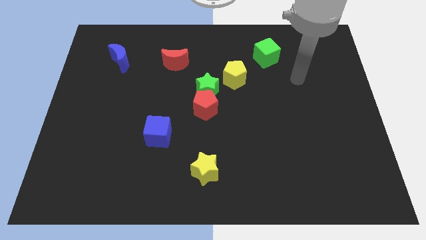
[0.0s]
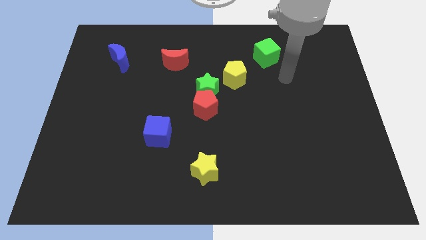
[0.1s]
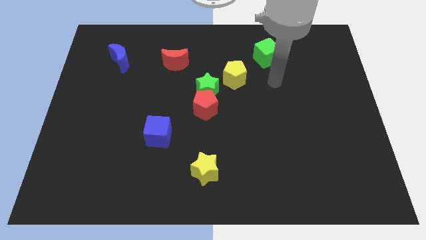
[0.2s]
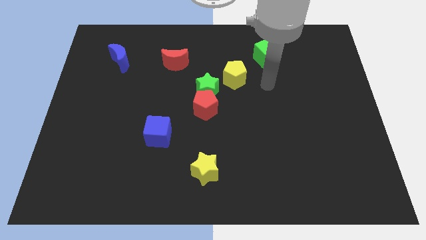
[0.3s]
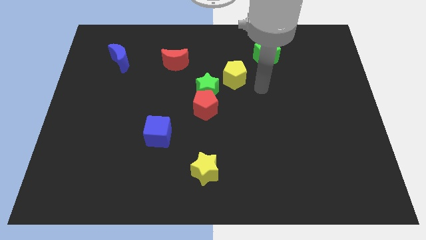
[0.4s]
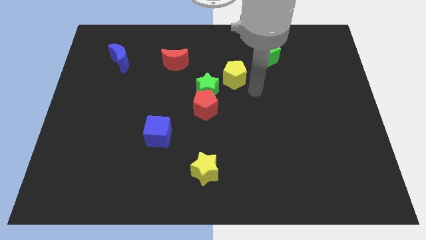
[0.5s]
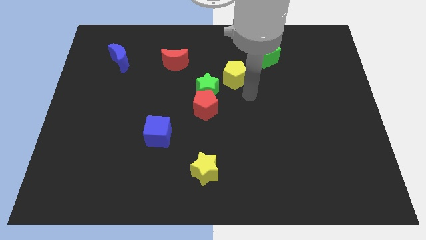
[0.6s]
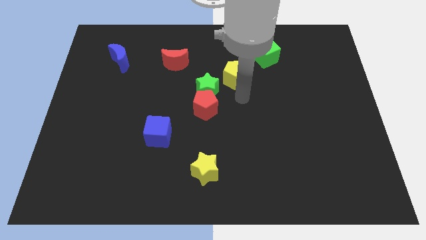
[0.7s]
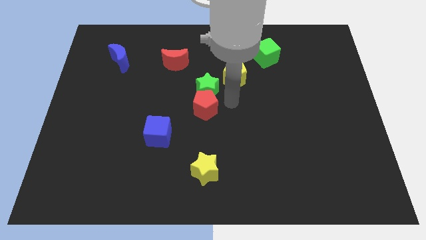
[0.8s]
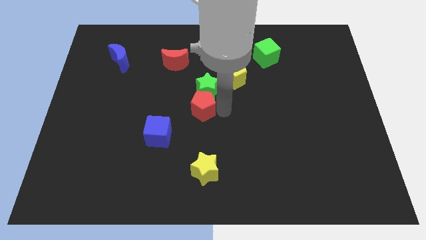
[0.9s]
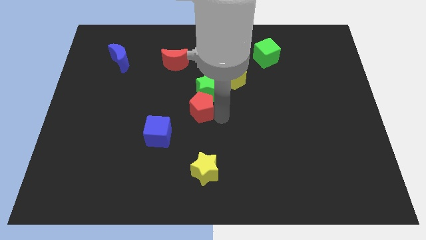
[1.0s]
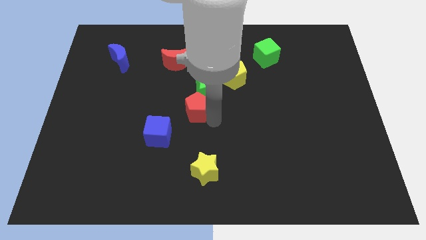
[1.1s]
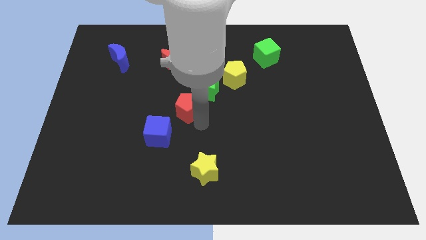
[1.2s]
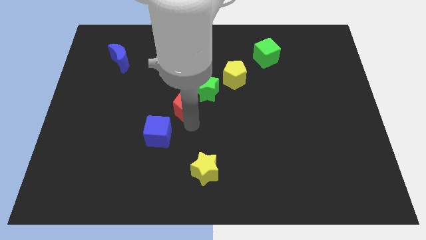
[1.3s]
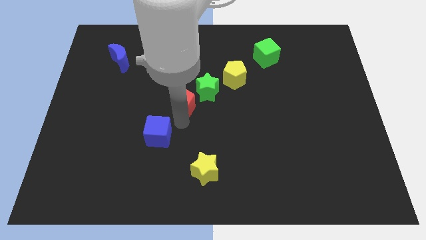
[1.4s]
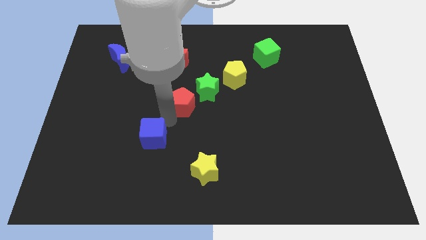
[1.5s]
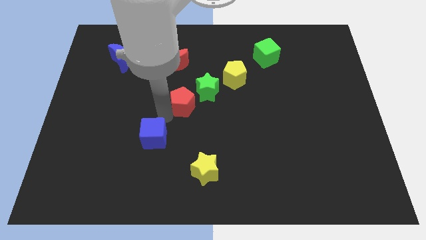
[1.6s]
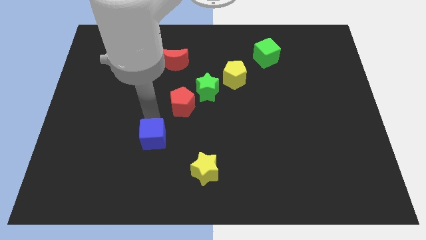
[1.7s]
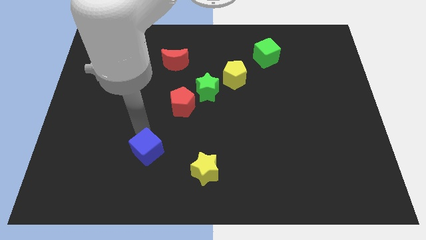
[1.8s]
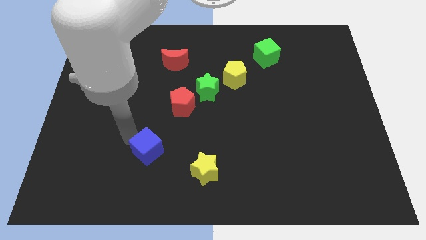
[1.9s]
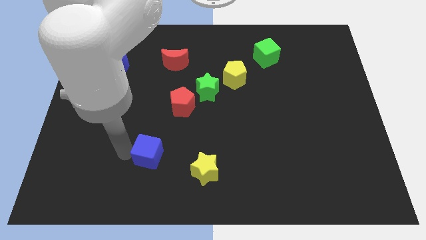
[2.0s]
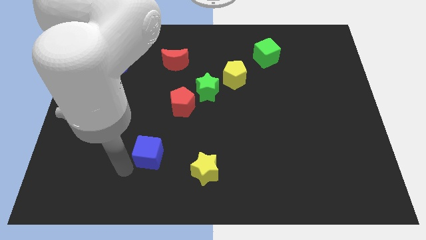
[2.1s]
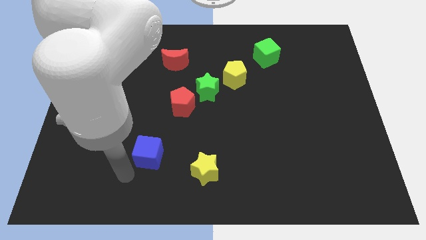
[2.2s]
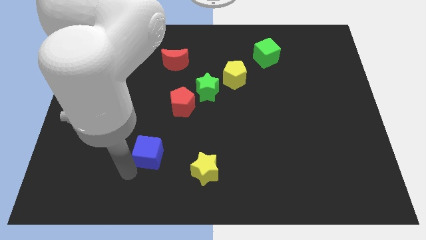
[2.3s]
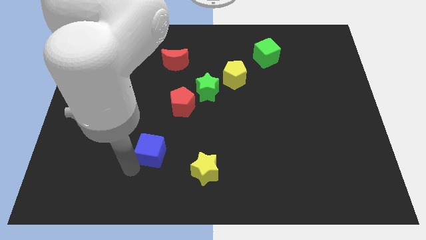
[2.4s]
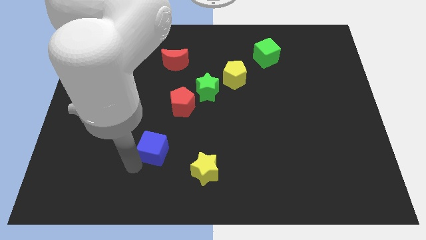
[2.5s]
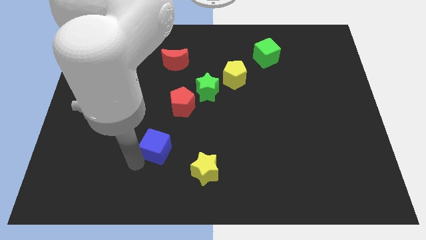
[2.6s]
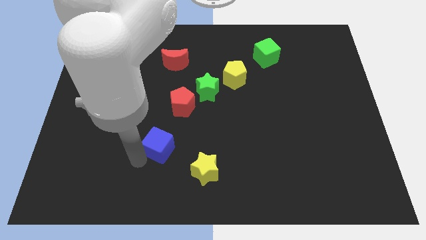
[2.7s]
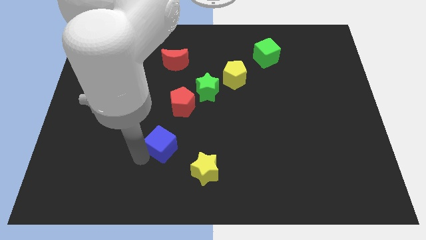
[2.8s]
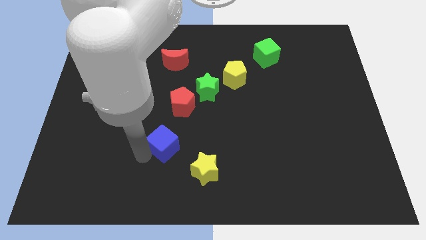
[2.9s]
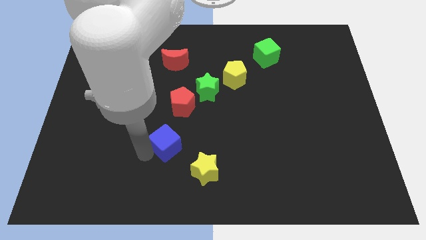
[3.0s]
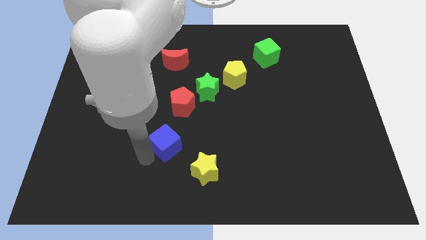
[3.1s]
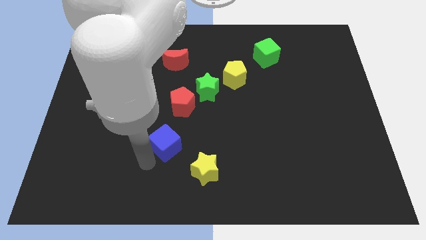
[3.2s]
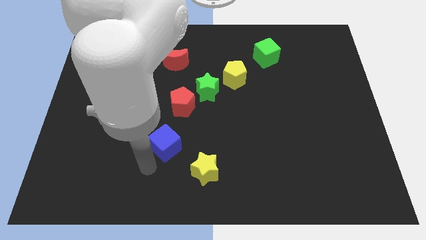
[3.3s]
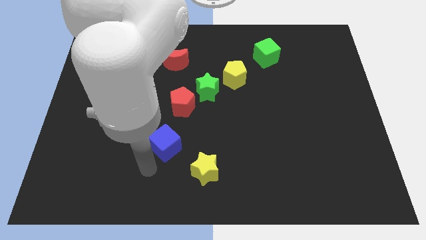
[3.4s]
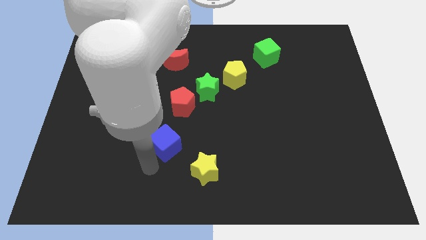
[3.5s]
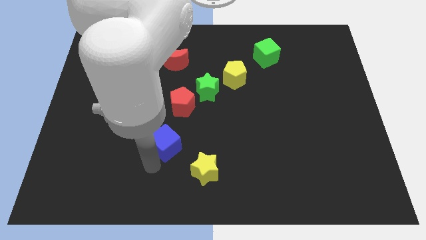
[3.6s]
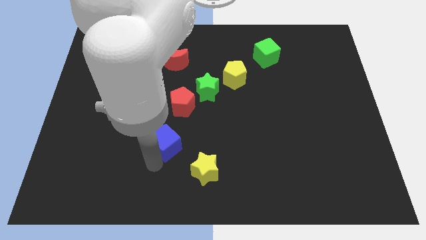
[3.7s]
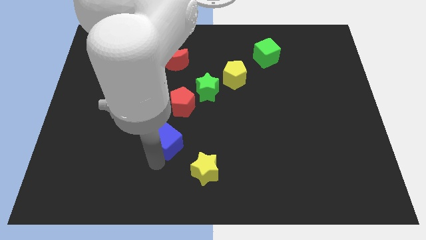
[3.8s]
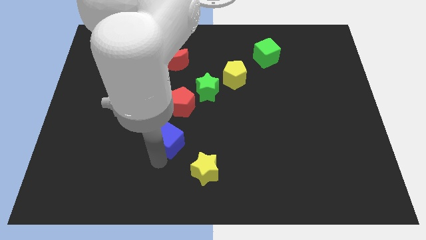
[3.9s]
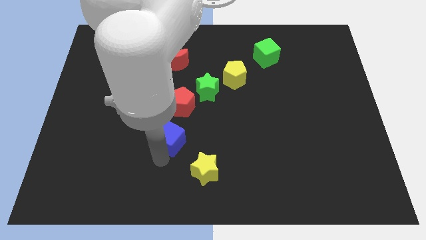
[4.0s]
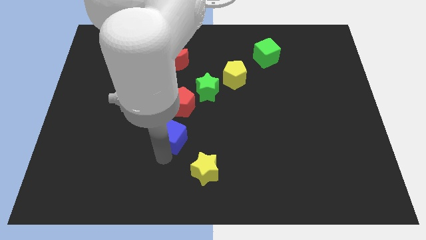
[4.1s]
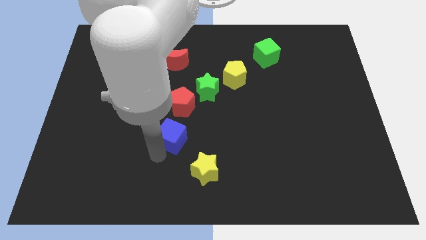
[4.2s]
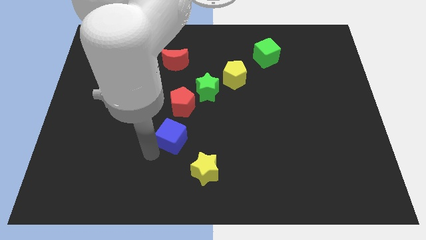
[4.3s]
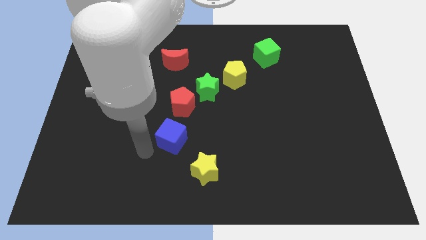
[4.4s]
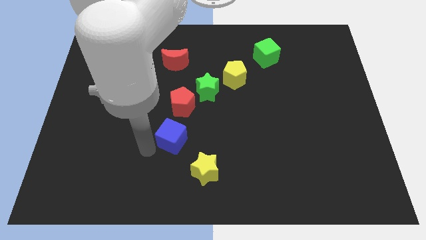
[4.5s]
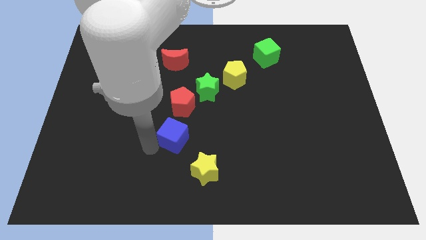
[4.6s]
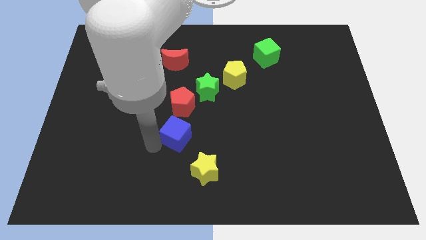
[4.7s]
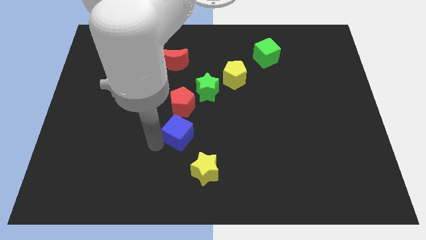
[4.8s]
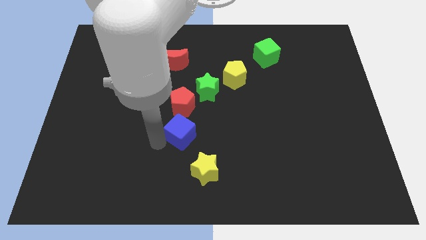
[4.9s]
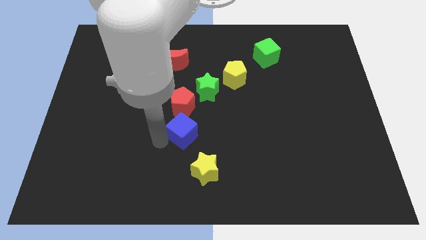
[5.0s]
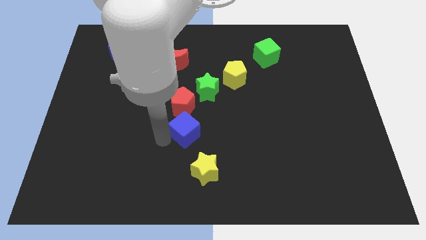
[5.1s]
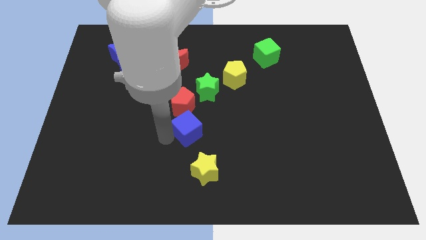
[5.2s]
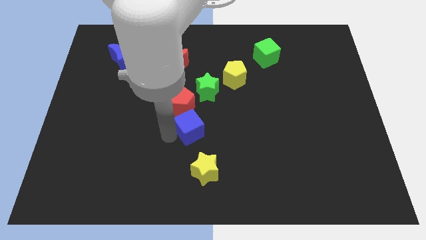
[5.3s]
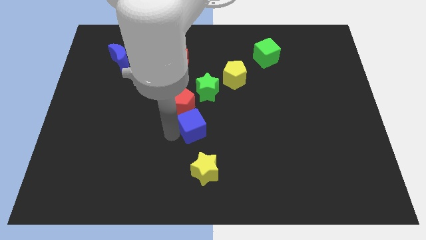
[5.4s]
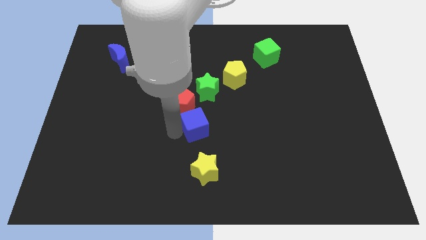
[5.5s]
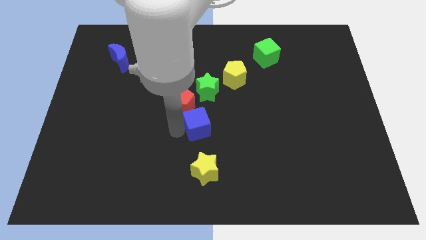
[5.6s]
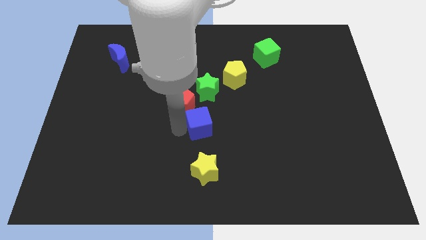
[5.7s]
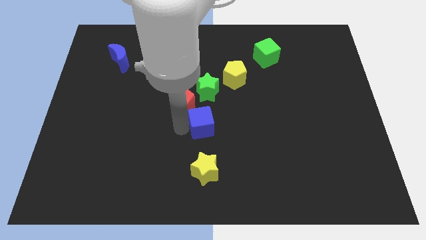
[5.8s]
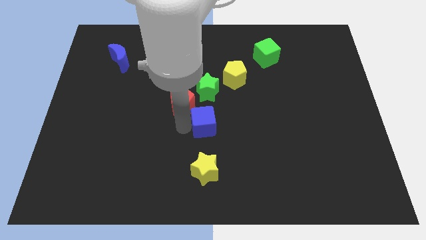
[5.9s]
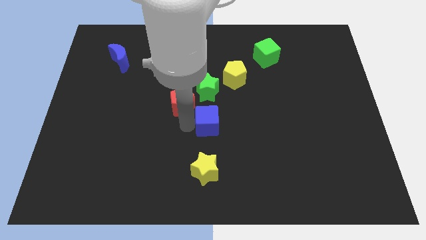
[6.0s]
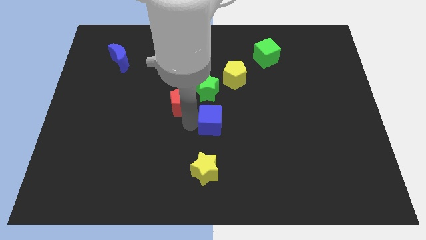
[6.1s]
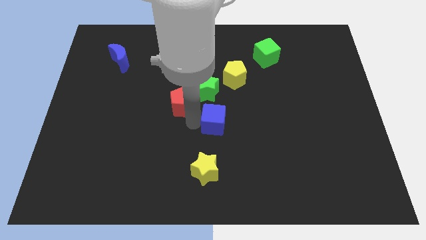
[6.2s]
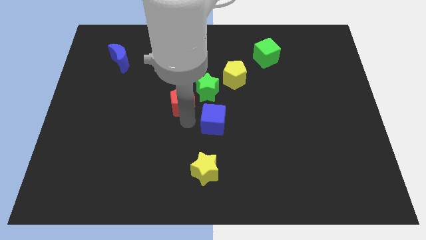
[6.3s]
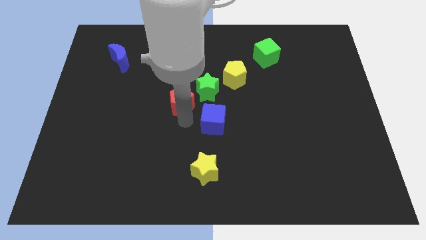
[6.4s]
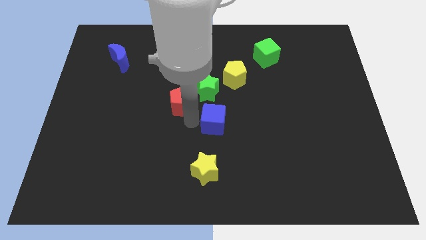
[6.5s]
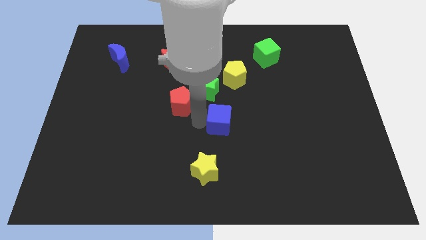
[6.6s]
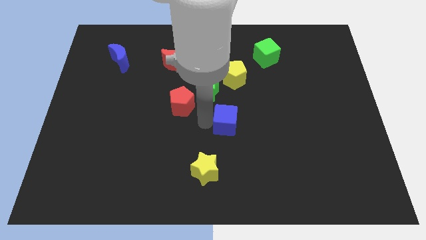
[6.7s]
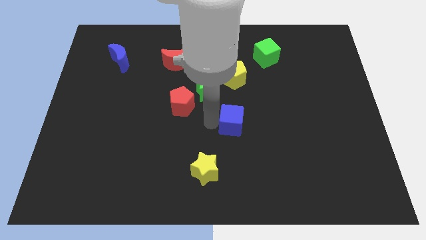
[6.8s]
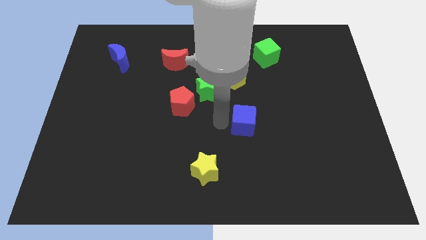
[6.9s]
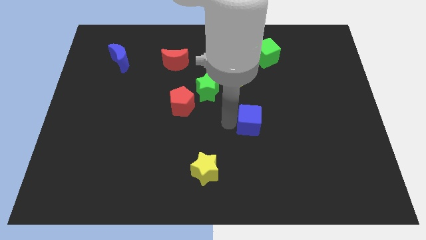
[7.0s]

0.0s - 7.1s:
push the blue cube right

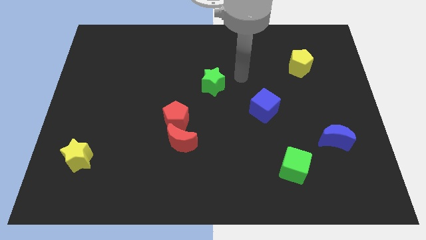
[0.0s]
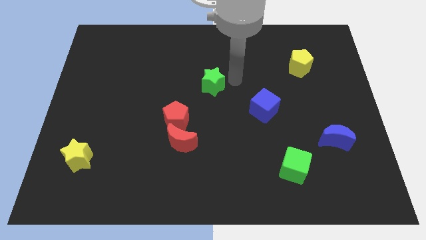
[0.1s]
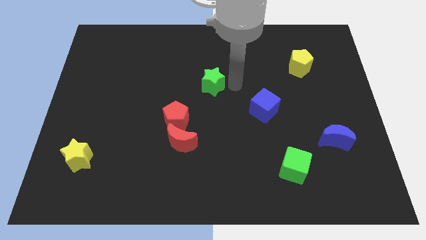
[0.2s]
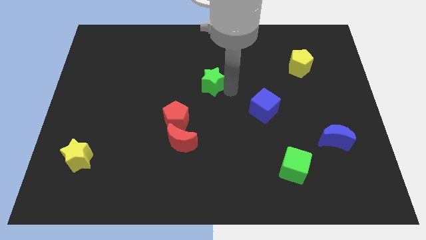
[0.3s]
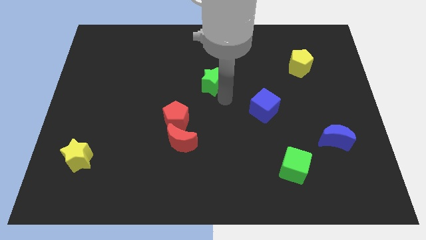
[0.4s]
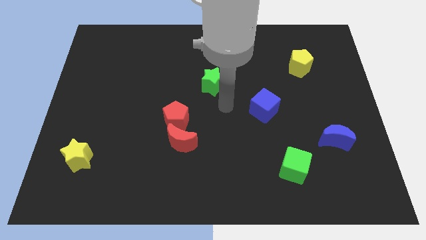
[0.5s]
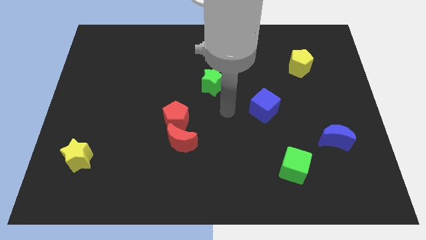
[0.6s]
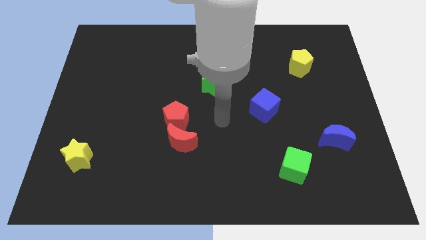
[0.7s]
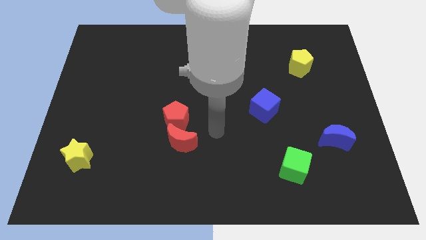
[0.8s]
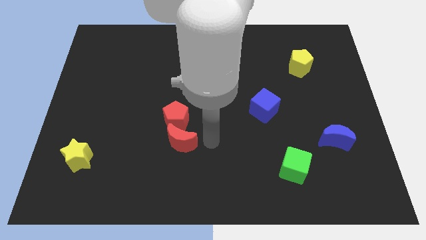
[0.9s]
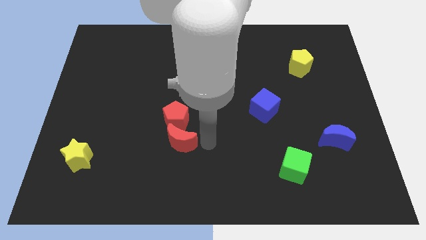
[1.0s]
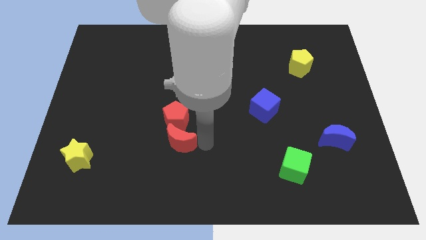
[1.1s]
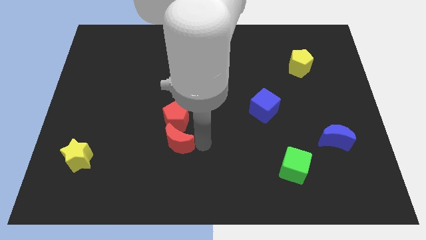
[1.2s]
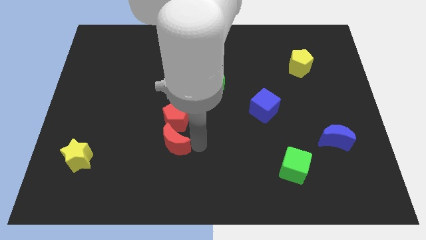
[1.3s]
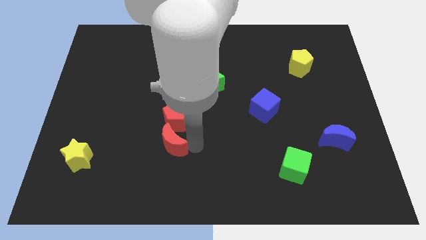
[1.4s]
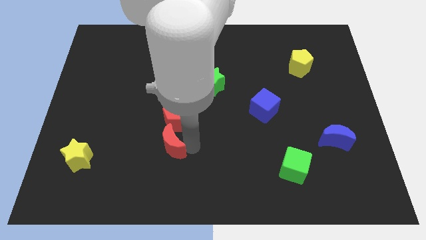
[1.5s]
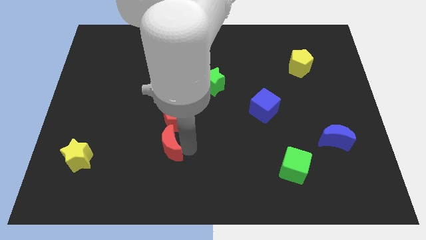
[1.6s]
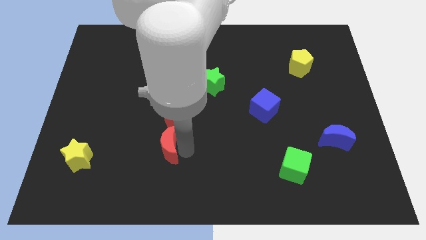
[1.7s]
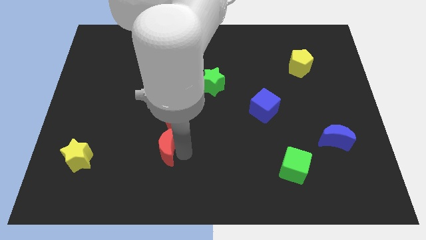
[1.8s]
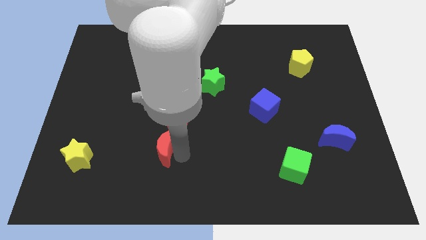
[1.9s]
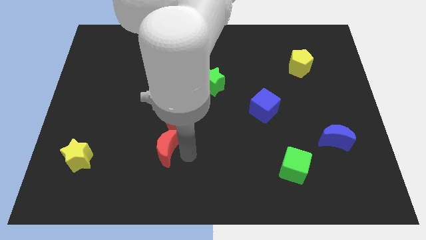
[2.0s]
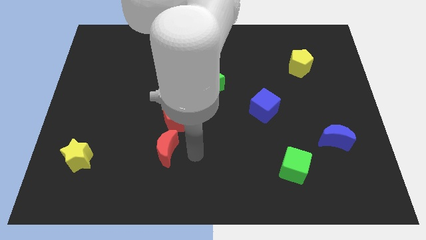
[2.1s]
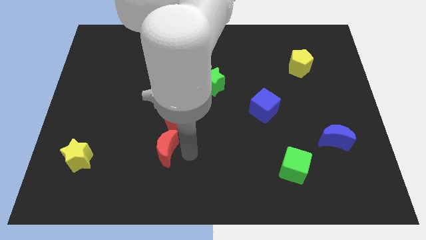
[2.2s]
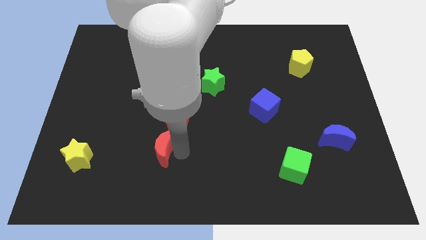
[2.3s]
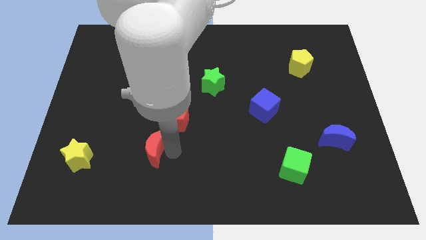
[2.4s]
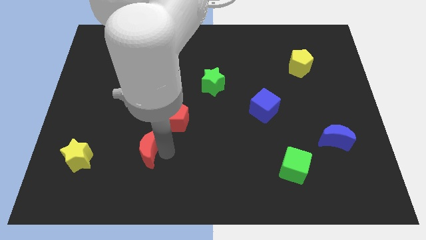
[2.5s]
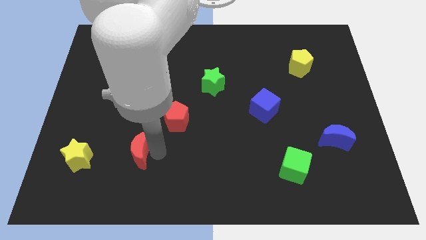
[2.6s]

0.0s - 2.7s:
slightly move the red moon to the left
